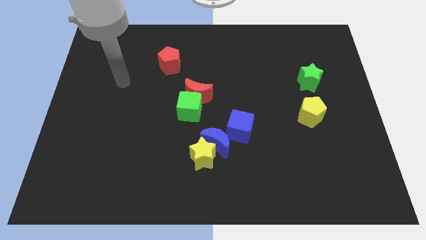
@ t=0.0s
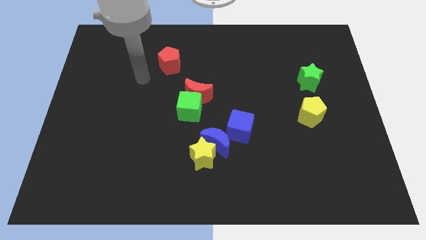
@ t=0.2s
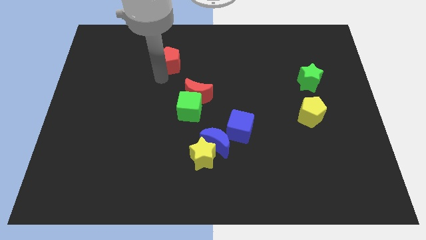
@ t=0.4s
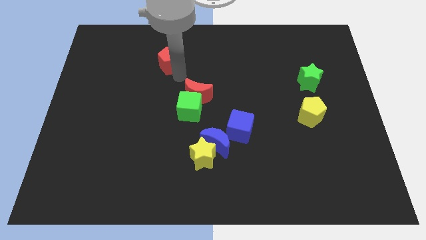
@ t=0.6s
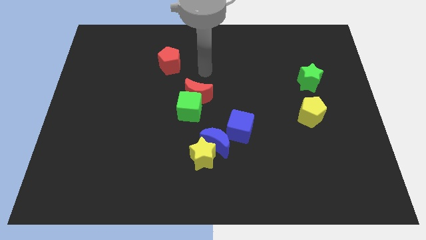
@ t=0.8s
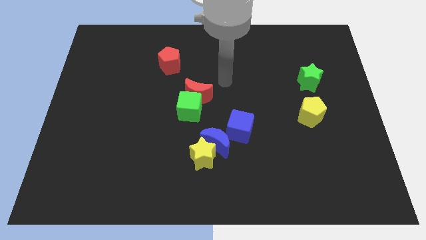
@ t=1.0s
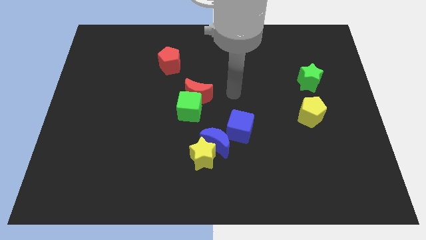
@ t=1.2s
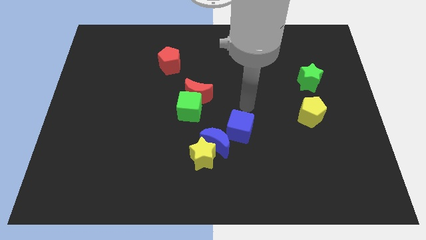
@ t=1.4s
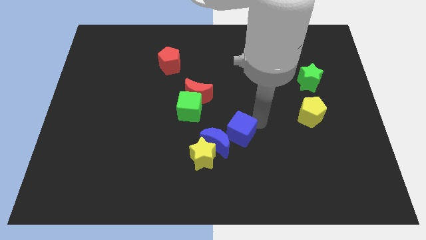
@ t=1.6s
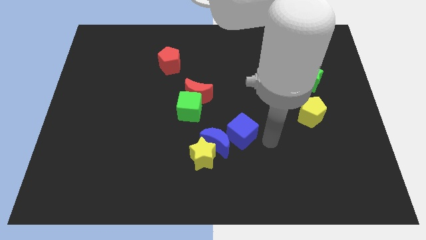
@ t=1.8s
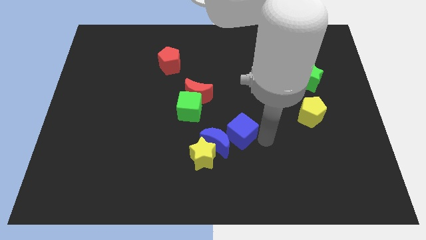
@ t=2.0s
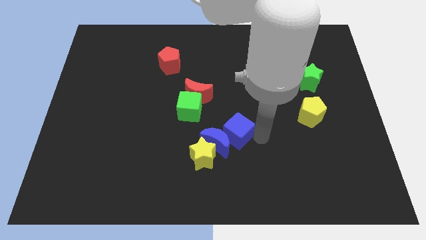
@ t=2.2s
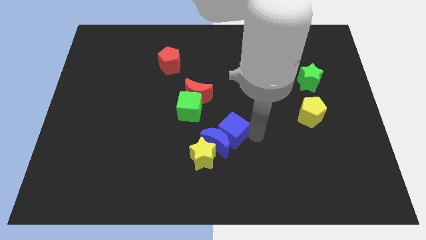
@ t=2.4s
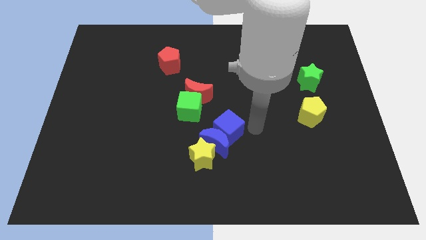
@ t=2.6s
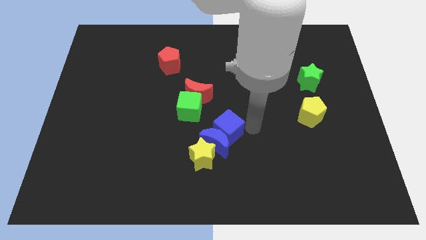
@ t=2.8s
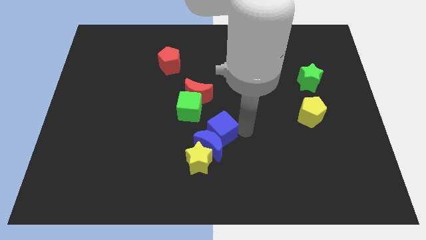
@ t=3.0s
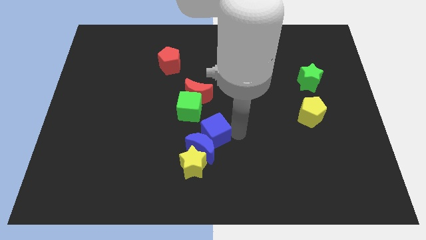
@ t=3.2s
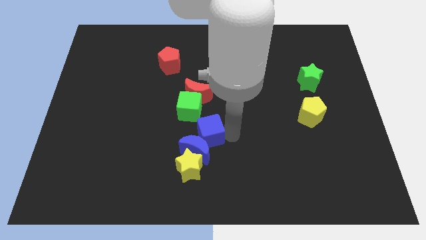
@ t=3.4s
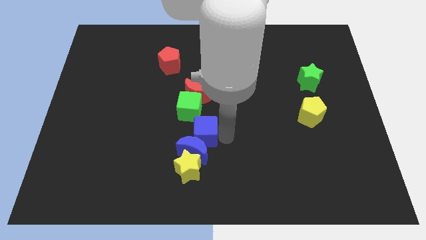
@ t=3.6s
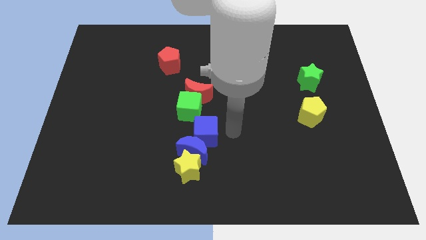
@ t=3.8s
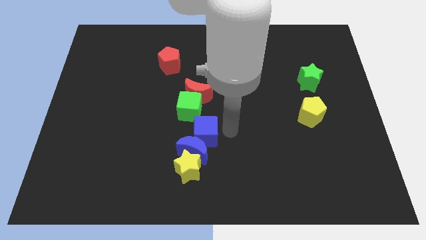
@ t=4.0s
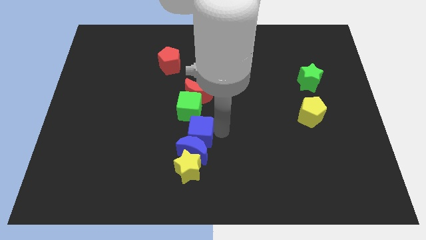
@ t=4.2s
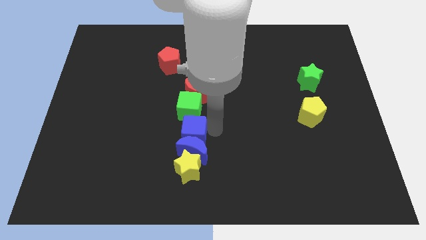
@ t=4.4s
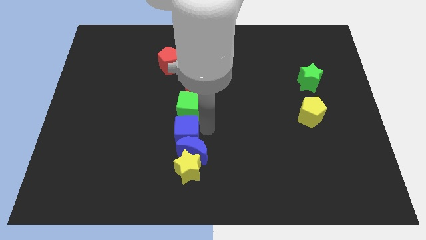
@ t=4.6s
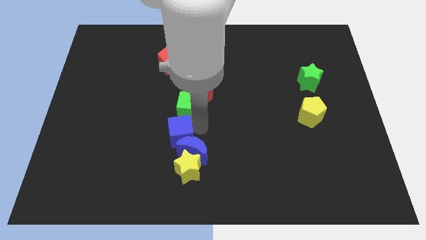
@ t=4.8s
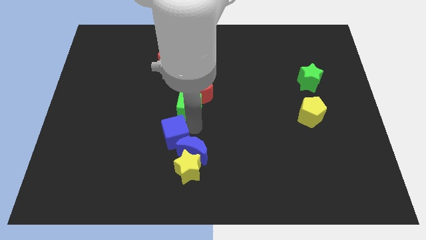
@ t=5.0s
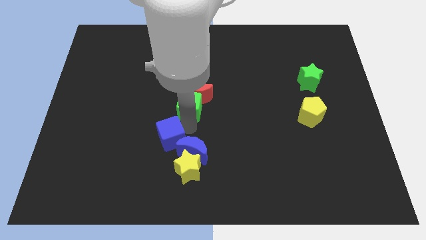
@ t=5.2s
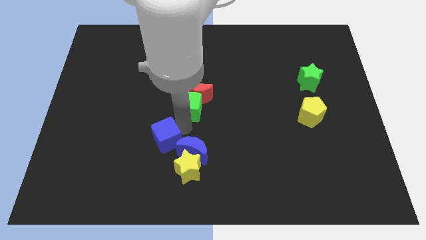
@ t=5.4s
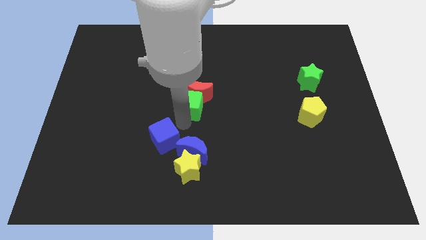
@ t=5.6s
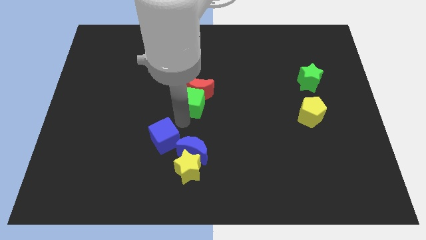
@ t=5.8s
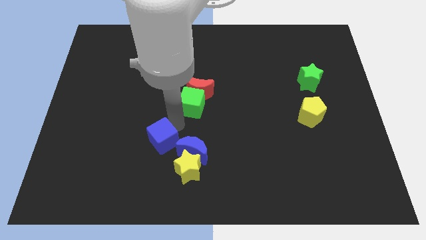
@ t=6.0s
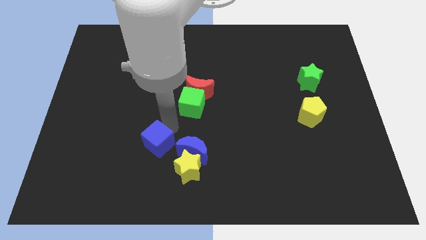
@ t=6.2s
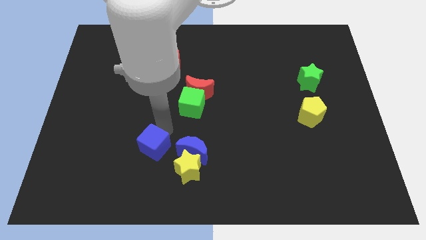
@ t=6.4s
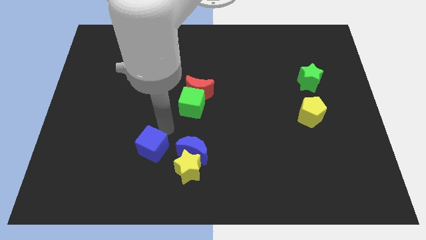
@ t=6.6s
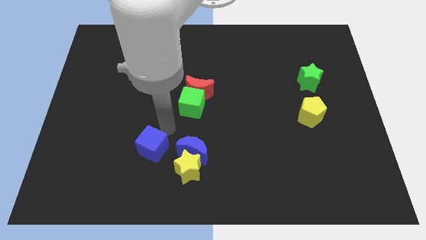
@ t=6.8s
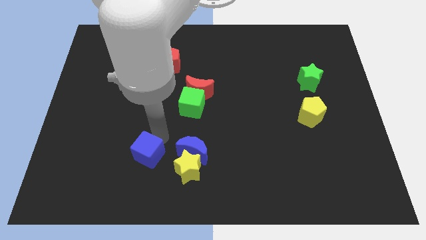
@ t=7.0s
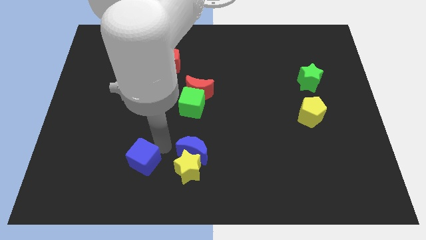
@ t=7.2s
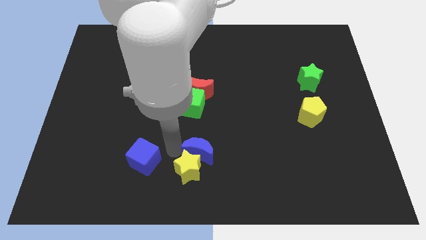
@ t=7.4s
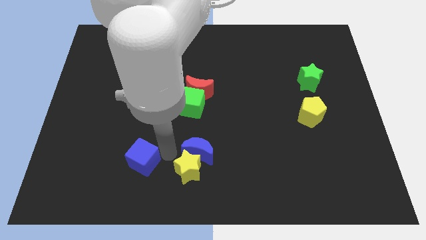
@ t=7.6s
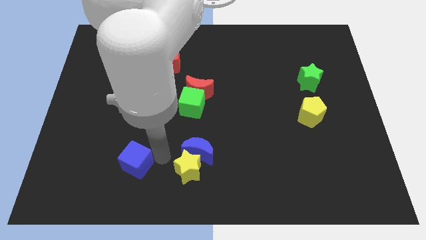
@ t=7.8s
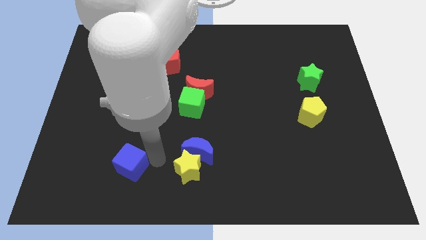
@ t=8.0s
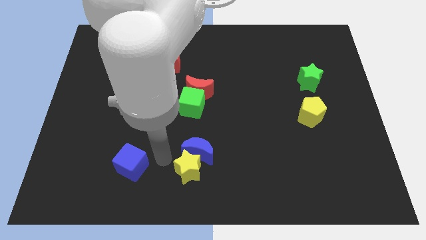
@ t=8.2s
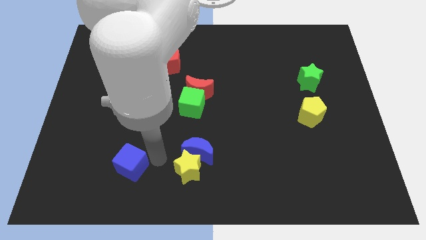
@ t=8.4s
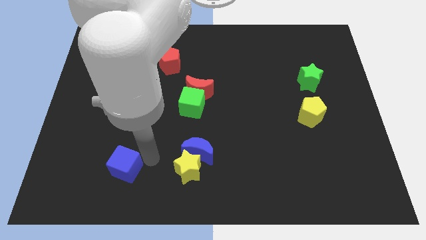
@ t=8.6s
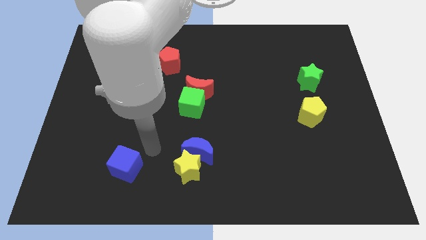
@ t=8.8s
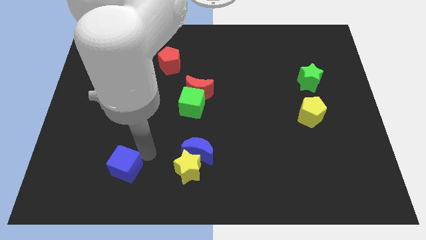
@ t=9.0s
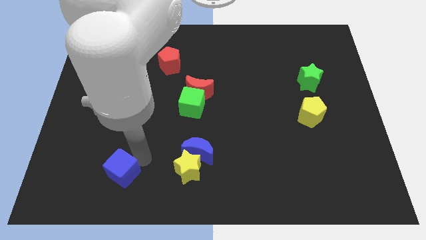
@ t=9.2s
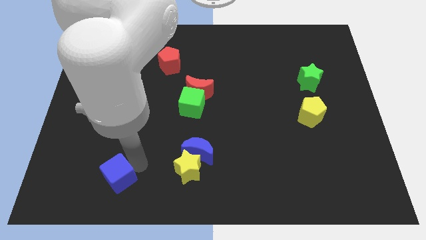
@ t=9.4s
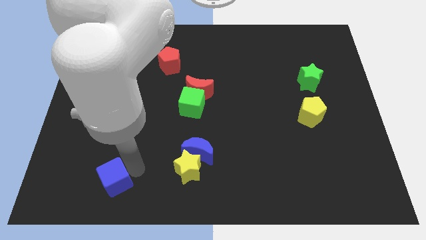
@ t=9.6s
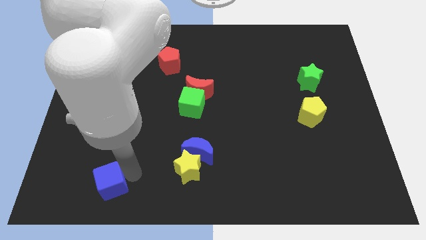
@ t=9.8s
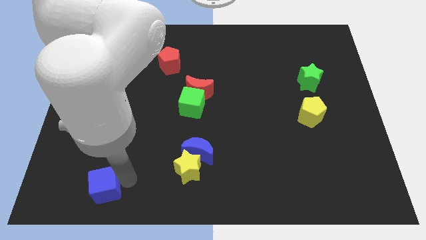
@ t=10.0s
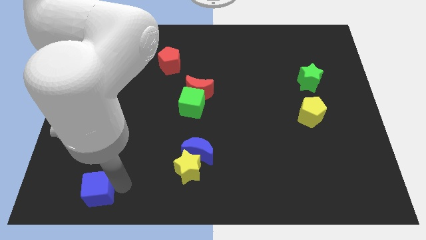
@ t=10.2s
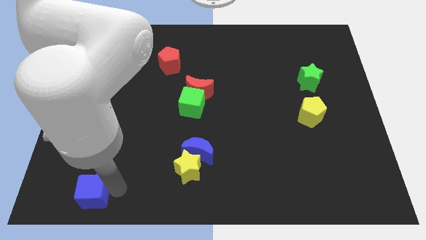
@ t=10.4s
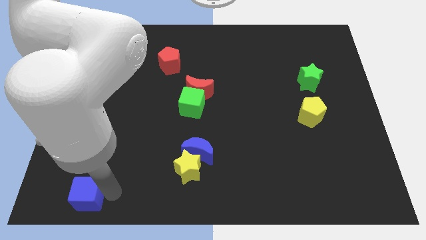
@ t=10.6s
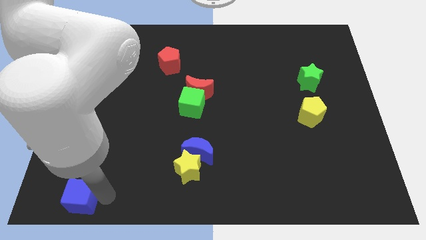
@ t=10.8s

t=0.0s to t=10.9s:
slide the blue cube to the bottom left of the board
